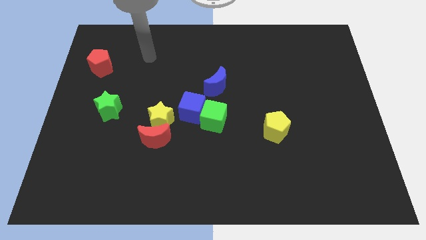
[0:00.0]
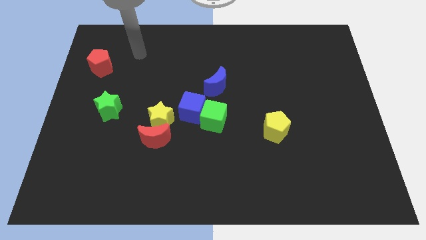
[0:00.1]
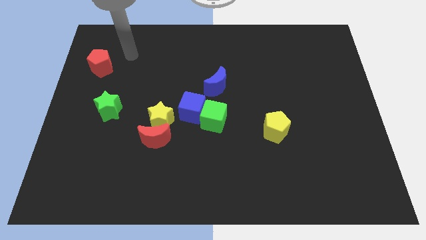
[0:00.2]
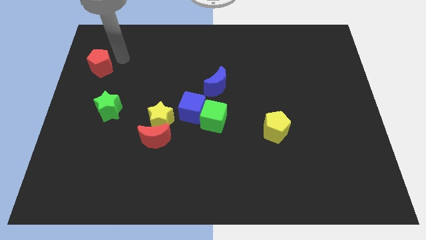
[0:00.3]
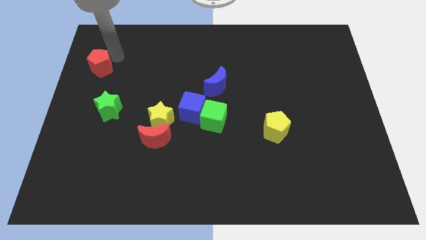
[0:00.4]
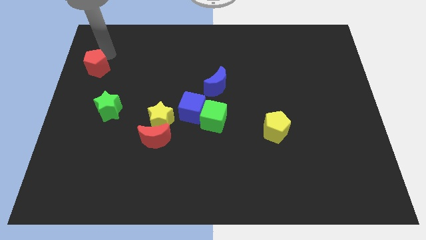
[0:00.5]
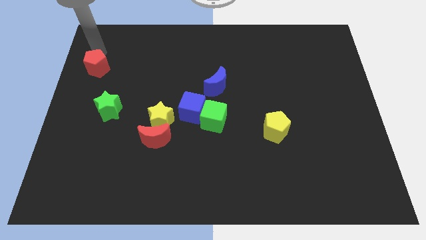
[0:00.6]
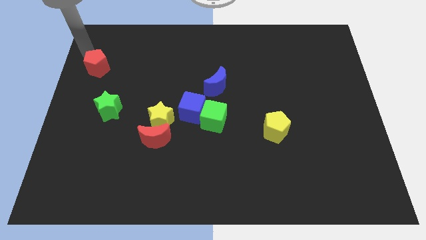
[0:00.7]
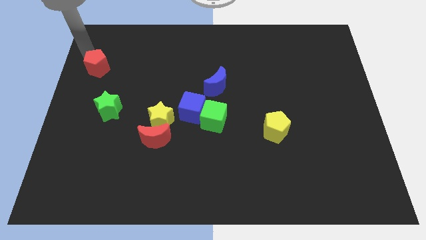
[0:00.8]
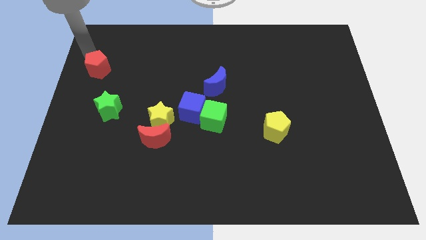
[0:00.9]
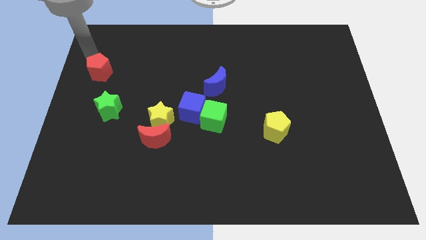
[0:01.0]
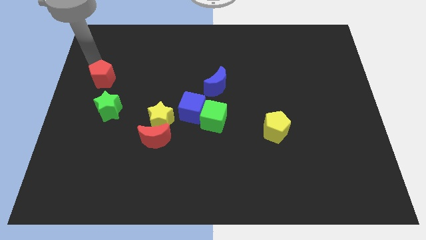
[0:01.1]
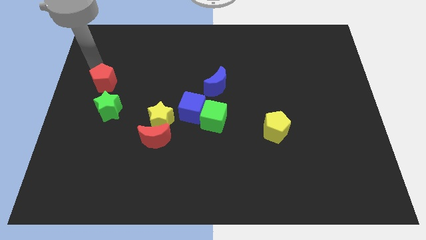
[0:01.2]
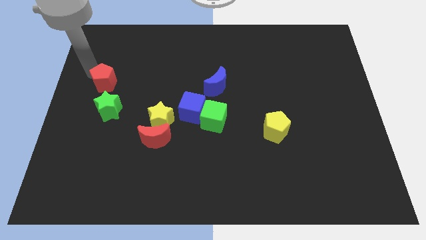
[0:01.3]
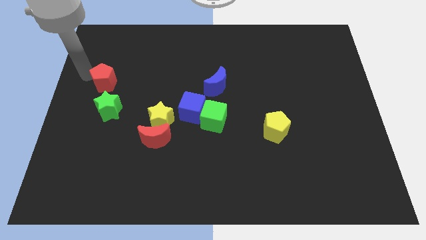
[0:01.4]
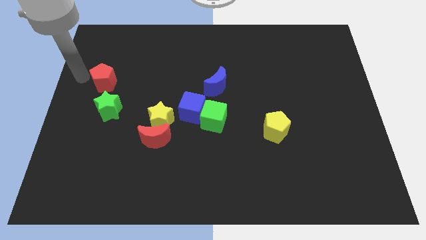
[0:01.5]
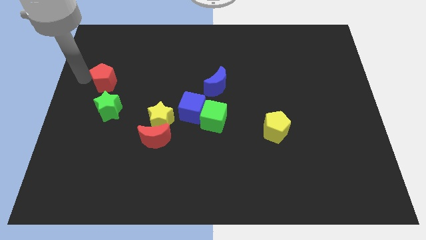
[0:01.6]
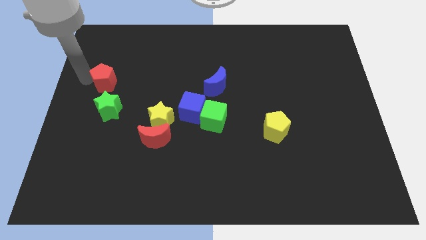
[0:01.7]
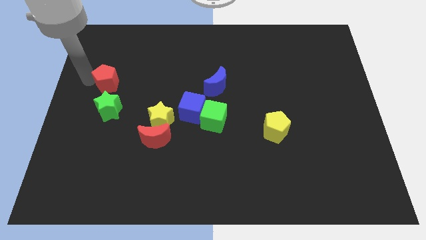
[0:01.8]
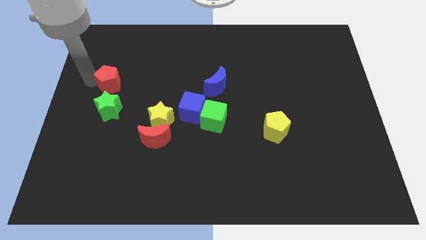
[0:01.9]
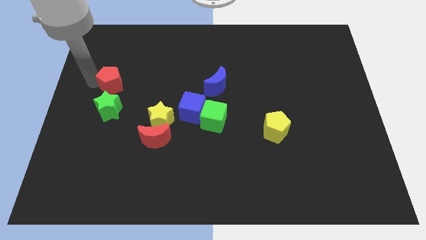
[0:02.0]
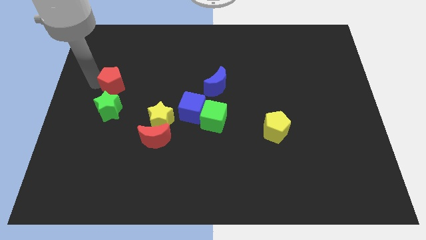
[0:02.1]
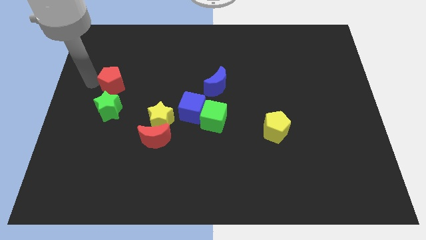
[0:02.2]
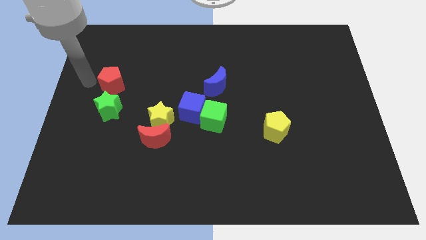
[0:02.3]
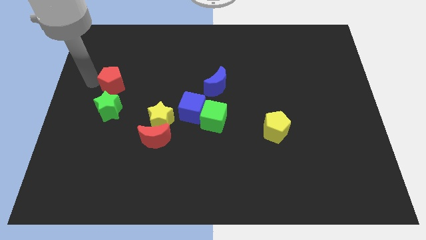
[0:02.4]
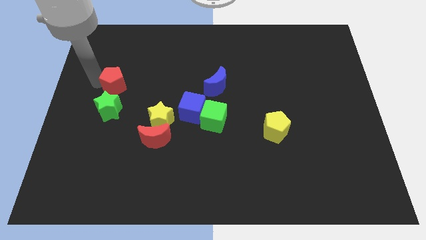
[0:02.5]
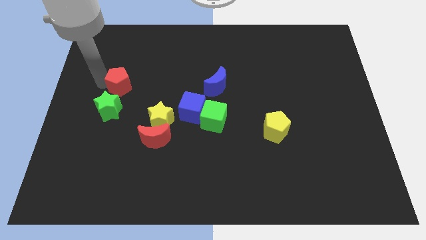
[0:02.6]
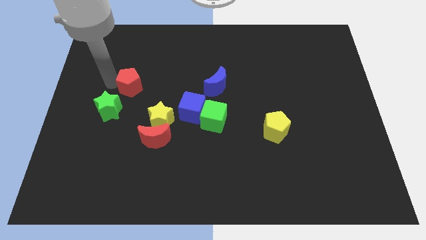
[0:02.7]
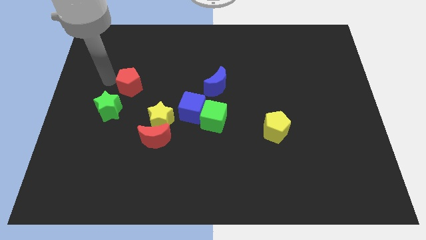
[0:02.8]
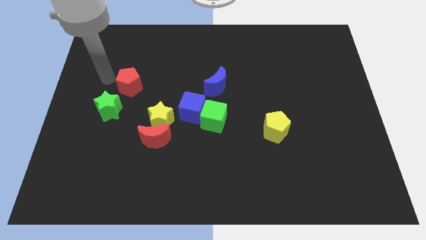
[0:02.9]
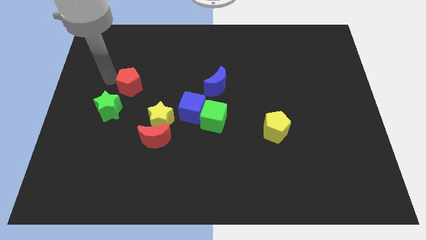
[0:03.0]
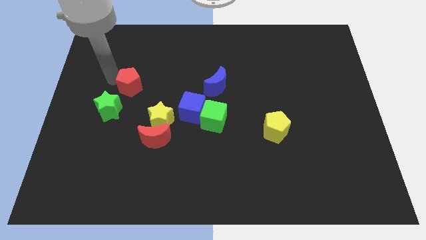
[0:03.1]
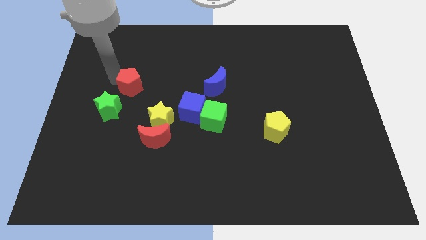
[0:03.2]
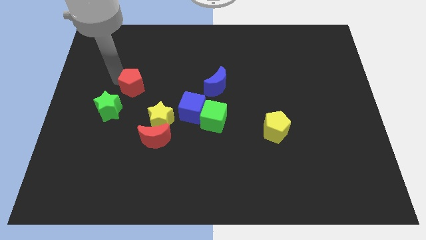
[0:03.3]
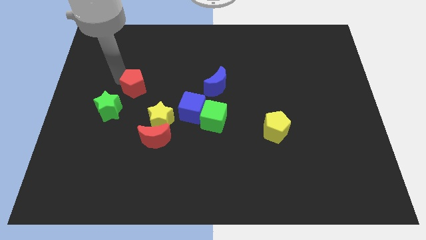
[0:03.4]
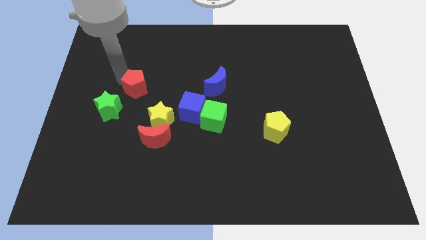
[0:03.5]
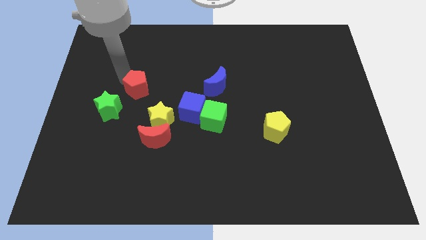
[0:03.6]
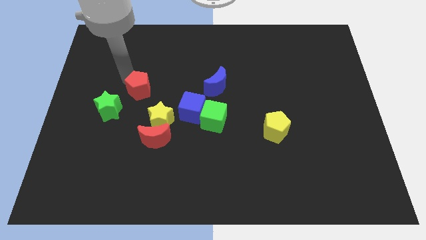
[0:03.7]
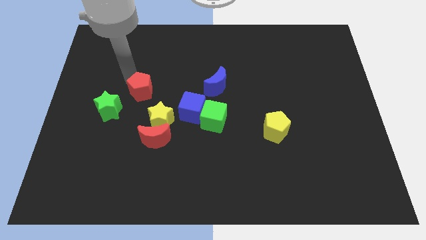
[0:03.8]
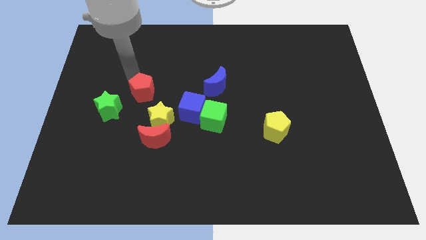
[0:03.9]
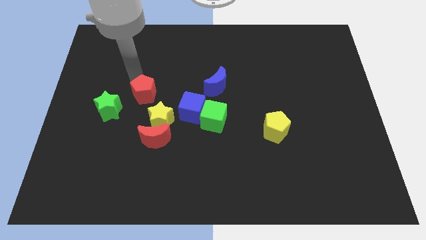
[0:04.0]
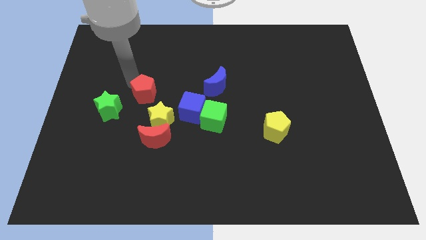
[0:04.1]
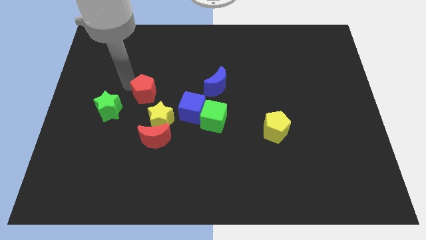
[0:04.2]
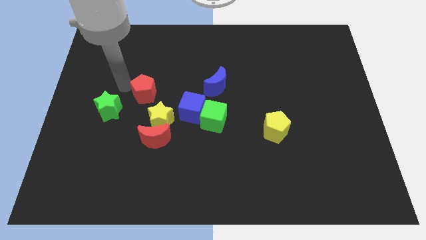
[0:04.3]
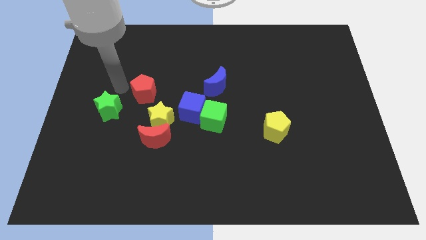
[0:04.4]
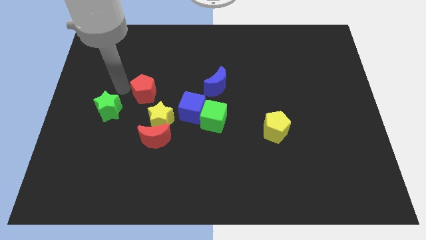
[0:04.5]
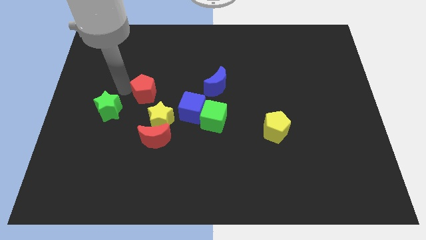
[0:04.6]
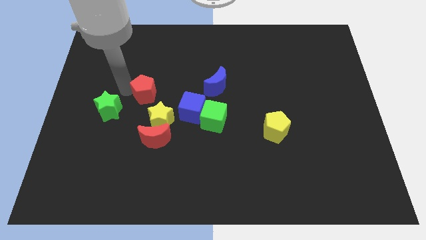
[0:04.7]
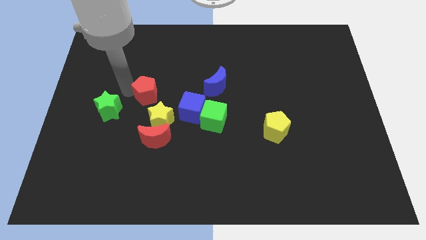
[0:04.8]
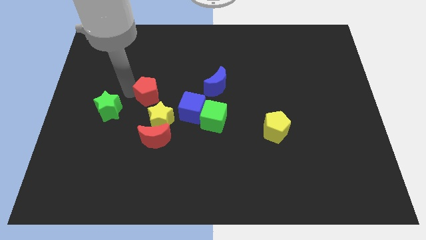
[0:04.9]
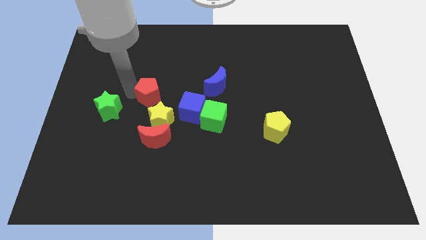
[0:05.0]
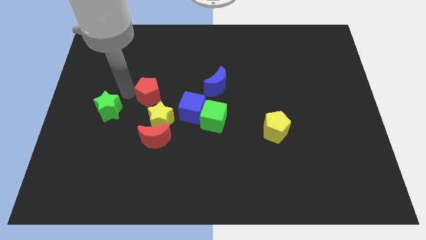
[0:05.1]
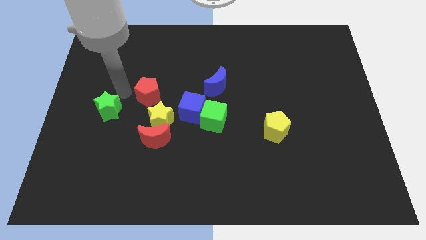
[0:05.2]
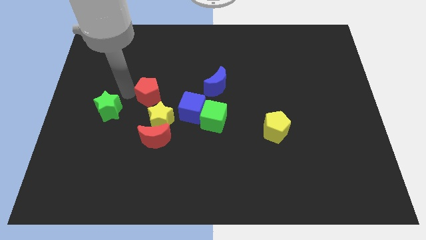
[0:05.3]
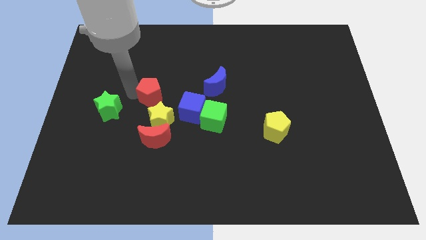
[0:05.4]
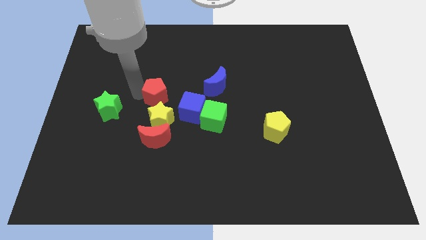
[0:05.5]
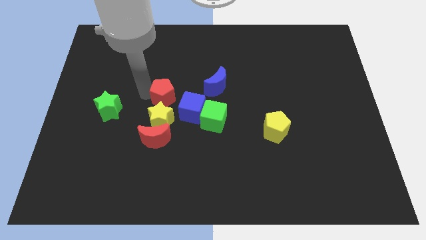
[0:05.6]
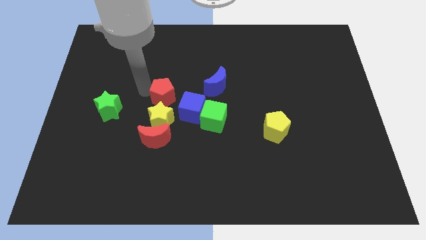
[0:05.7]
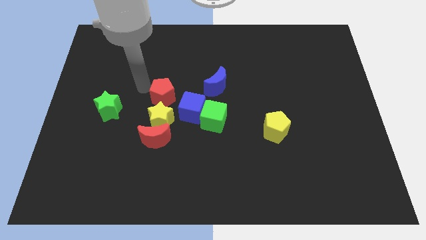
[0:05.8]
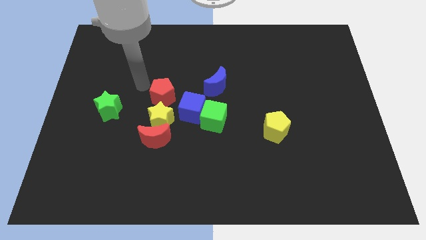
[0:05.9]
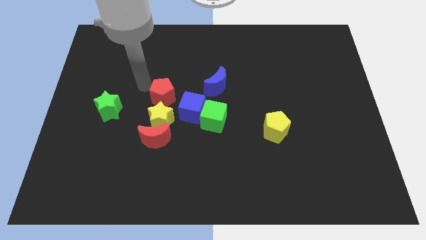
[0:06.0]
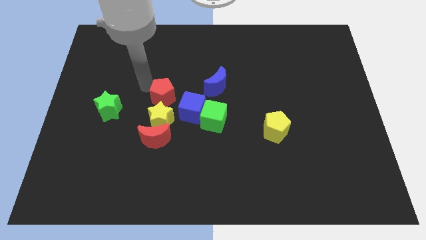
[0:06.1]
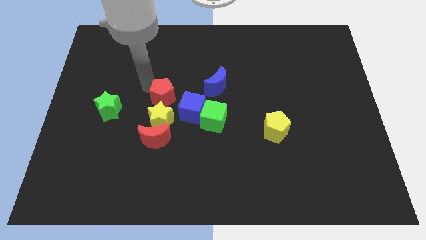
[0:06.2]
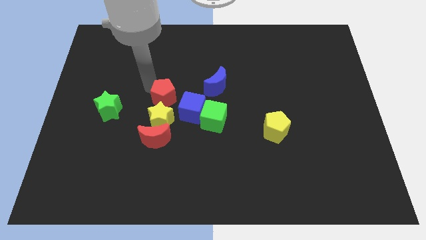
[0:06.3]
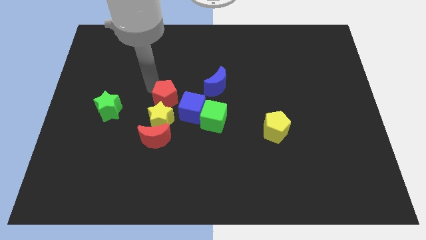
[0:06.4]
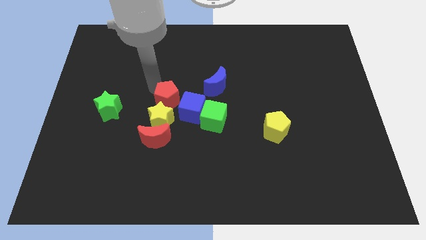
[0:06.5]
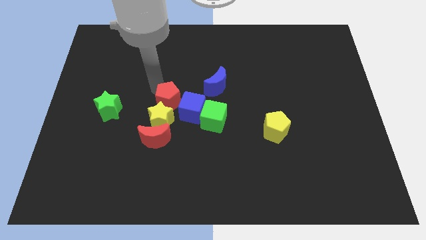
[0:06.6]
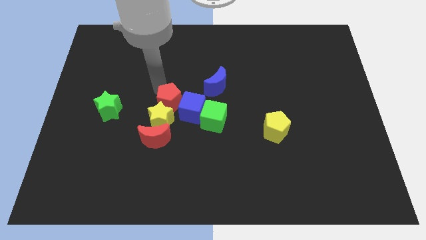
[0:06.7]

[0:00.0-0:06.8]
push the red pentagon close to the blue cube

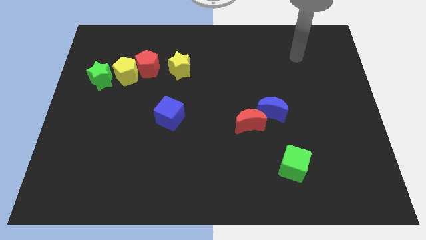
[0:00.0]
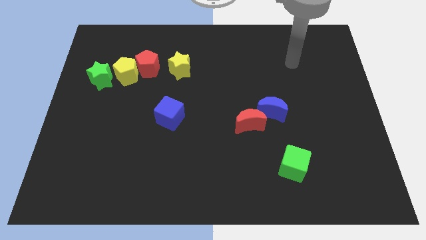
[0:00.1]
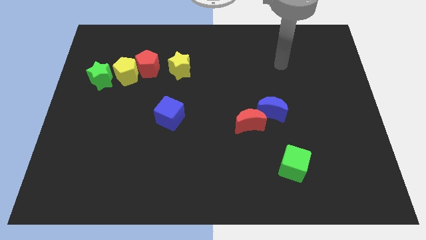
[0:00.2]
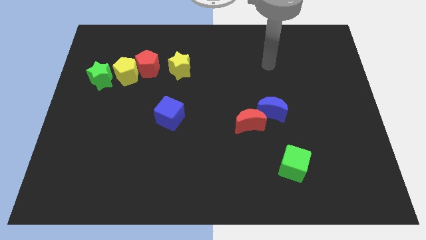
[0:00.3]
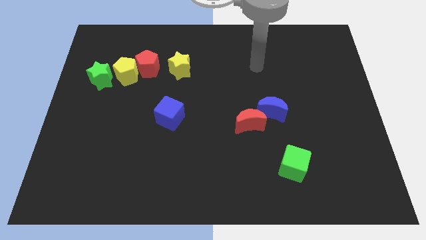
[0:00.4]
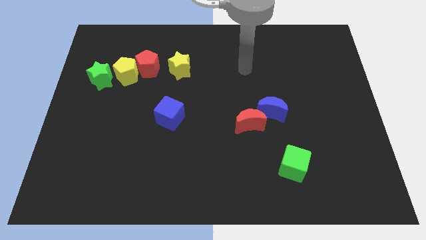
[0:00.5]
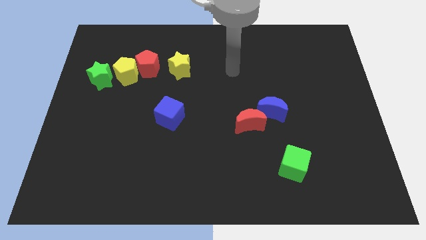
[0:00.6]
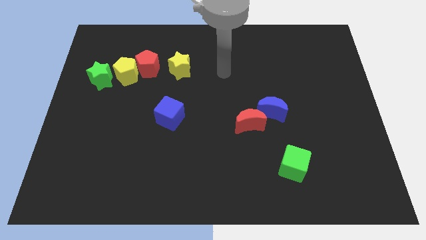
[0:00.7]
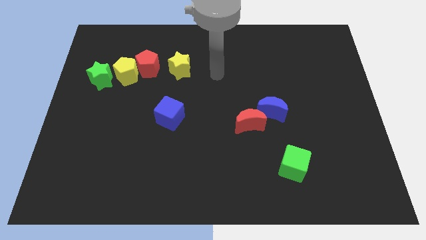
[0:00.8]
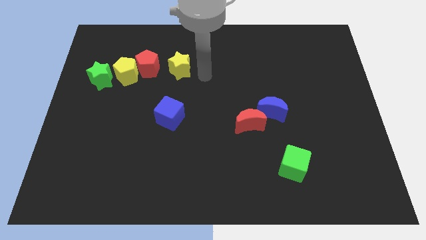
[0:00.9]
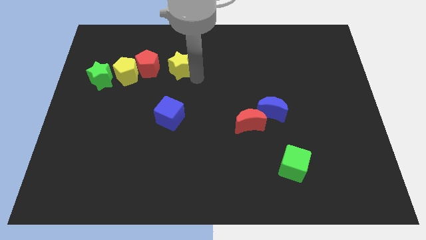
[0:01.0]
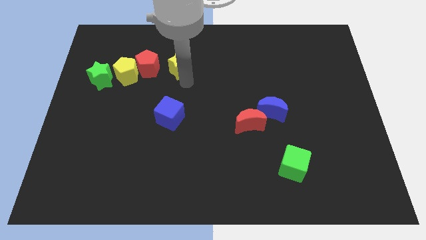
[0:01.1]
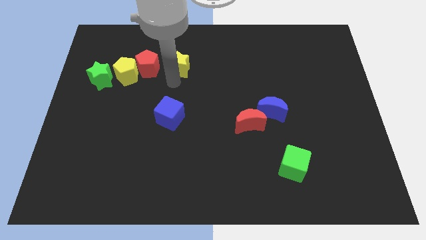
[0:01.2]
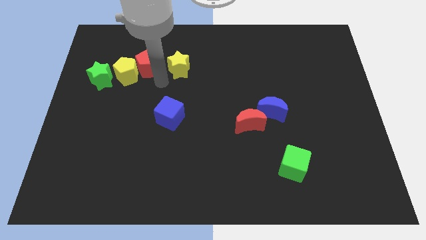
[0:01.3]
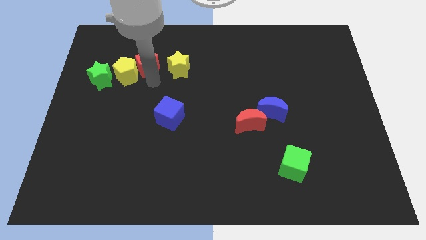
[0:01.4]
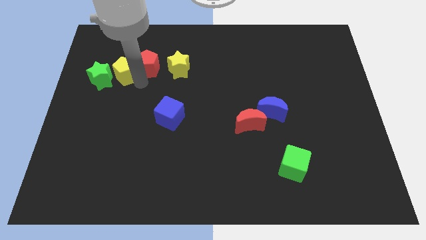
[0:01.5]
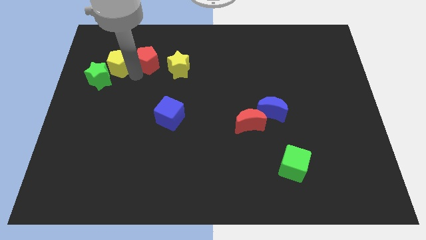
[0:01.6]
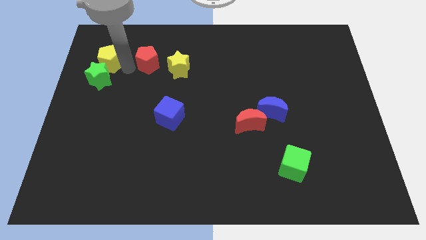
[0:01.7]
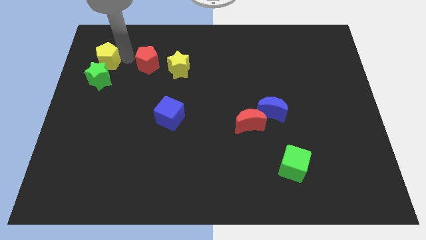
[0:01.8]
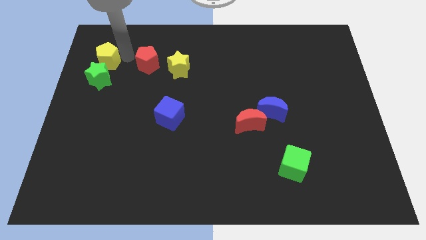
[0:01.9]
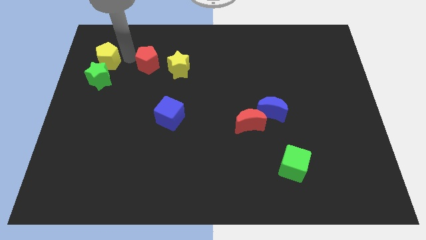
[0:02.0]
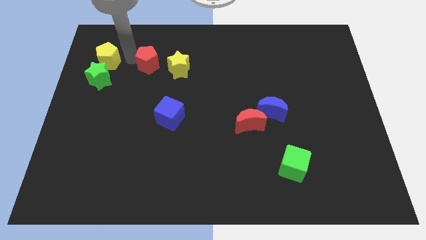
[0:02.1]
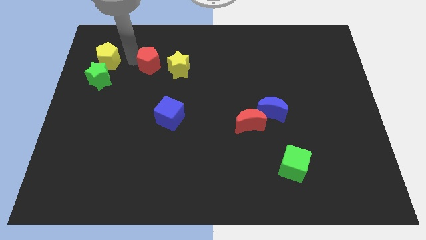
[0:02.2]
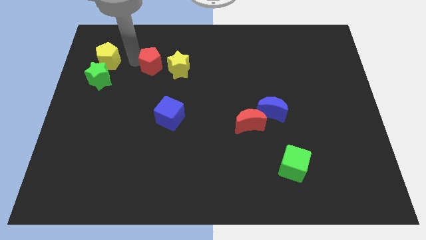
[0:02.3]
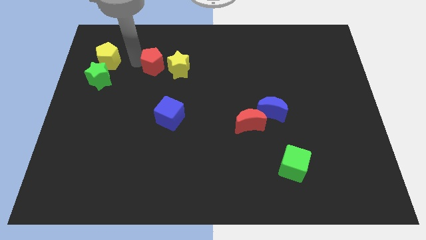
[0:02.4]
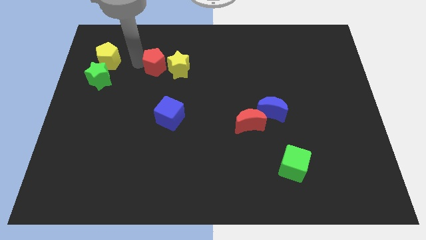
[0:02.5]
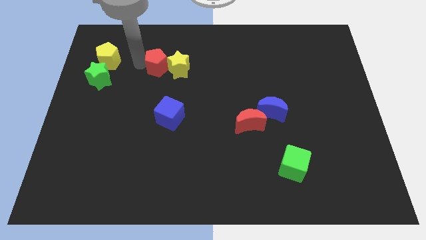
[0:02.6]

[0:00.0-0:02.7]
push the red pentagon next to the yellow star
